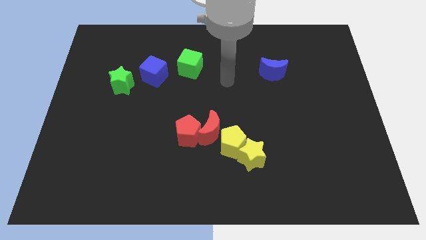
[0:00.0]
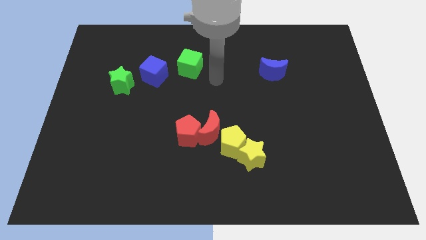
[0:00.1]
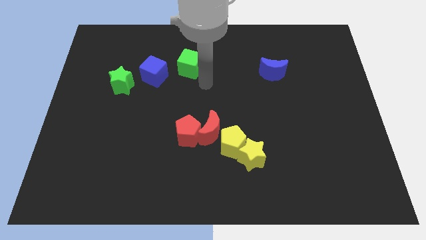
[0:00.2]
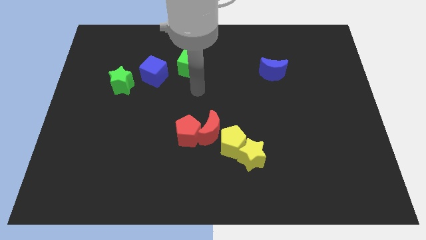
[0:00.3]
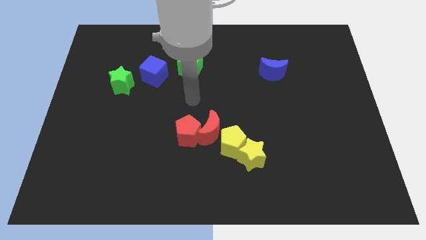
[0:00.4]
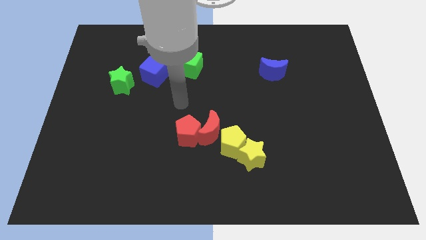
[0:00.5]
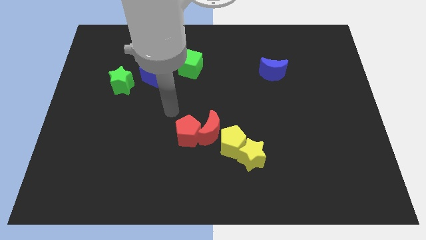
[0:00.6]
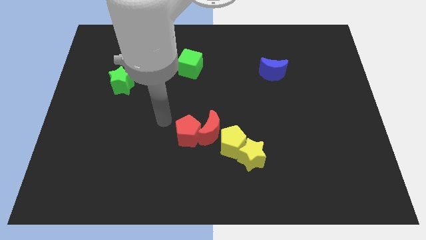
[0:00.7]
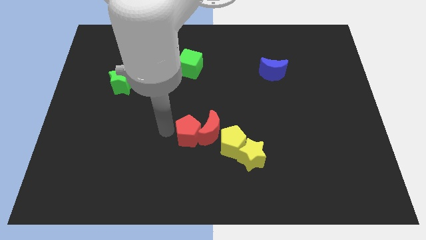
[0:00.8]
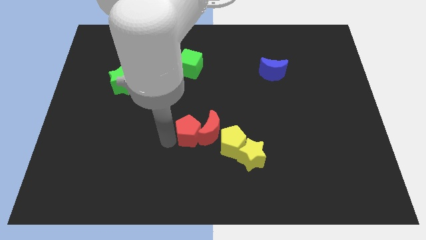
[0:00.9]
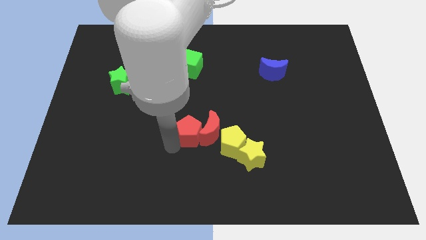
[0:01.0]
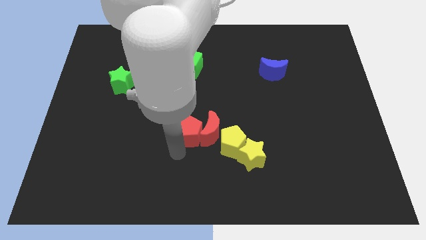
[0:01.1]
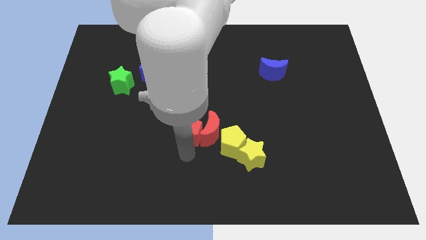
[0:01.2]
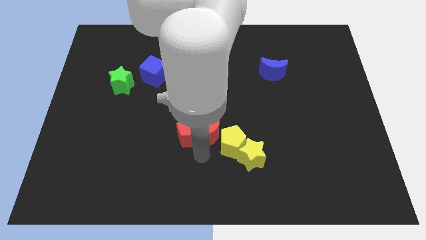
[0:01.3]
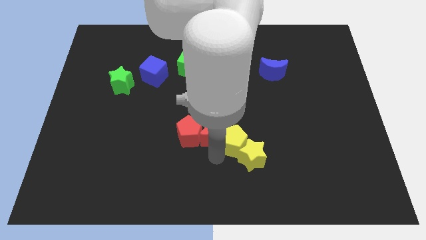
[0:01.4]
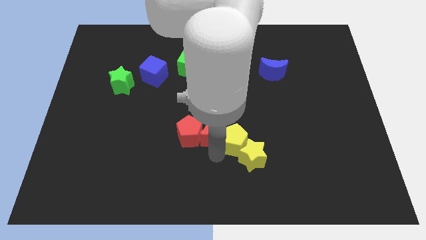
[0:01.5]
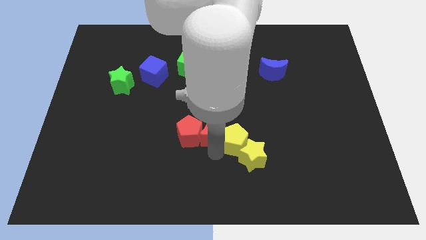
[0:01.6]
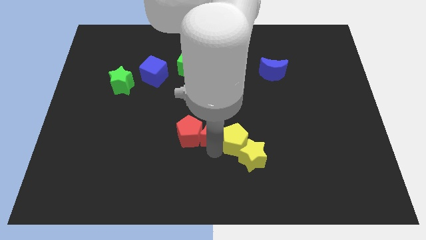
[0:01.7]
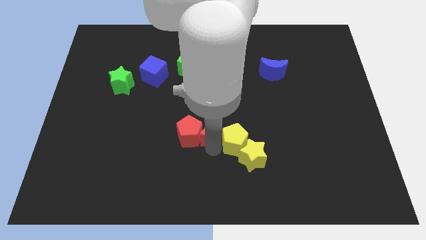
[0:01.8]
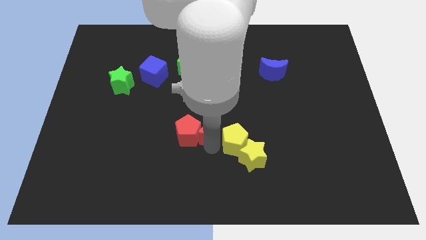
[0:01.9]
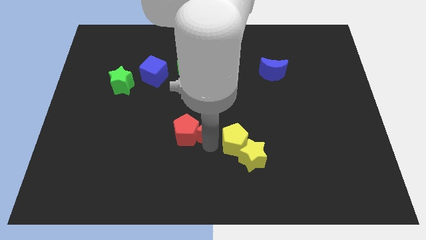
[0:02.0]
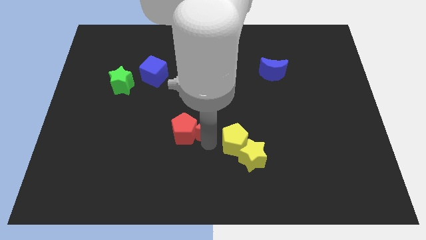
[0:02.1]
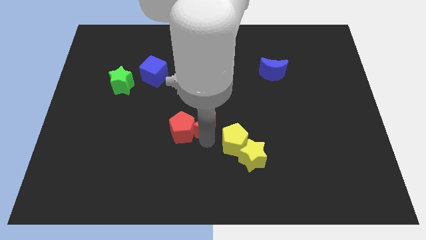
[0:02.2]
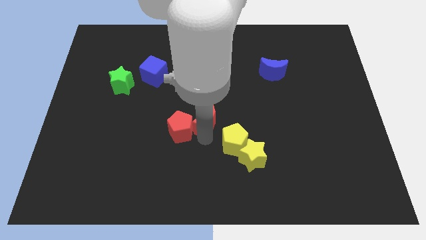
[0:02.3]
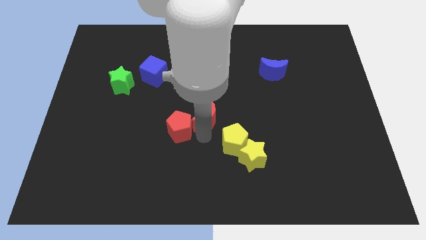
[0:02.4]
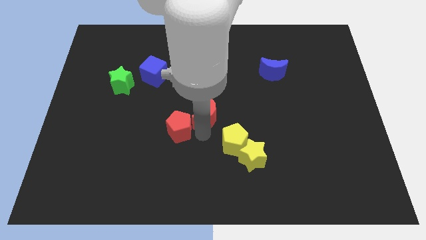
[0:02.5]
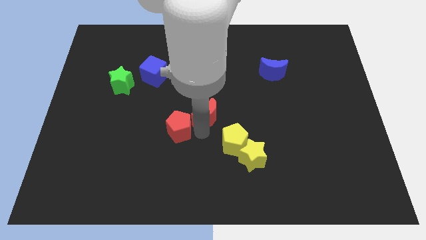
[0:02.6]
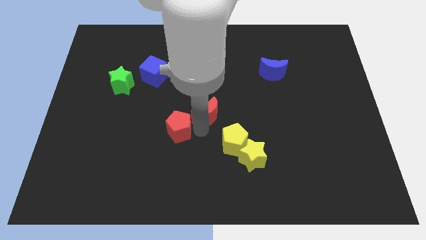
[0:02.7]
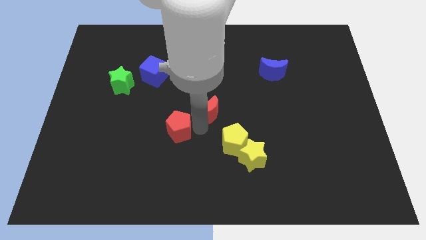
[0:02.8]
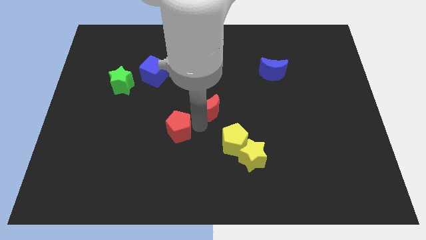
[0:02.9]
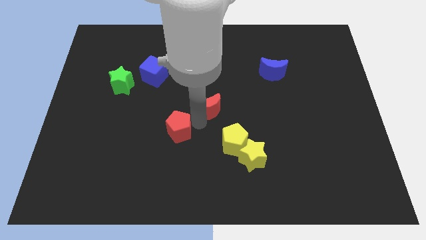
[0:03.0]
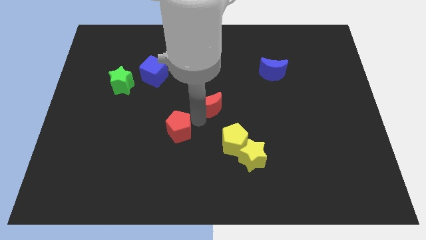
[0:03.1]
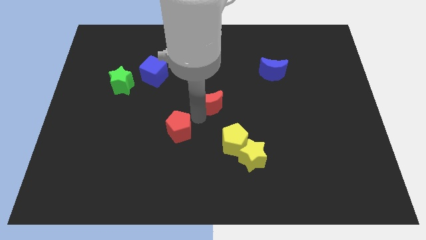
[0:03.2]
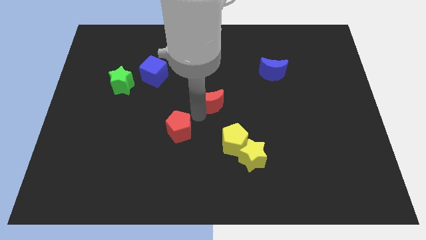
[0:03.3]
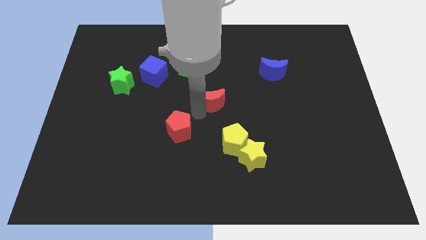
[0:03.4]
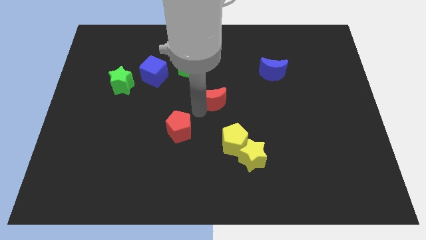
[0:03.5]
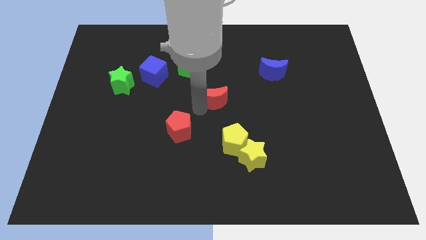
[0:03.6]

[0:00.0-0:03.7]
move the red moon away from the red pentagon and yellow pentagon

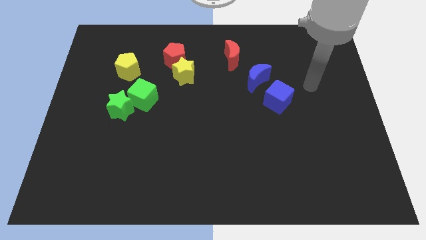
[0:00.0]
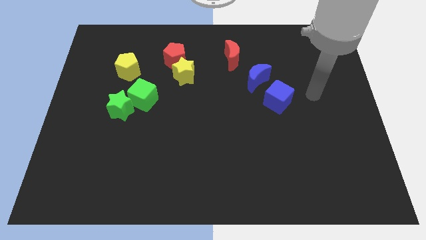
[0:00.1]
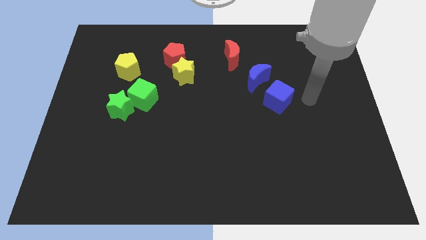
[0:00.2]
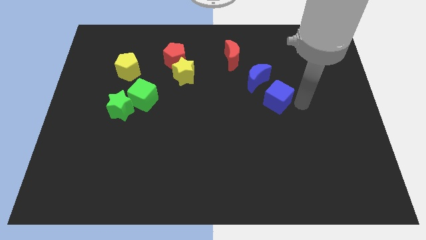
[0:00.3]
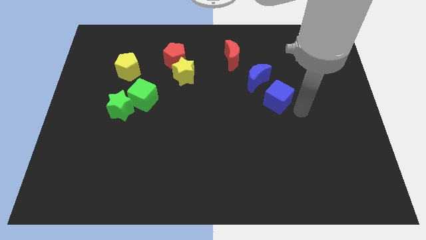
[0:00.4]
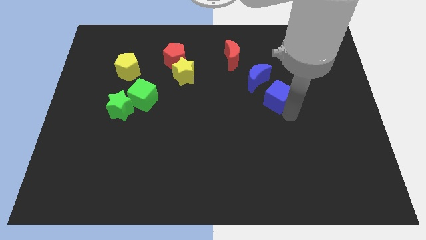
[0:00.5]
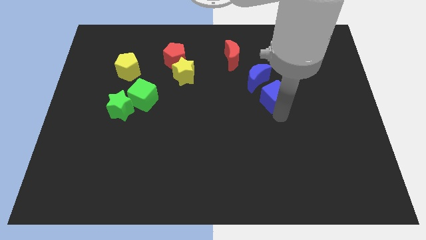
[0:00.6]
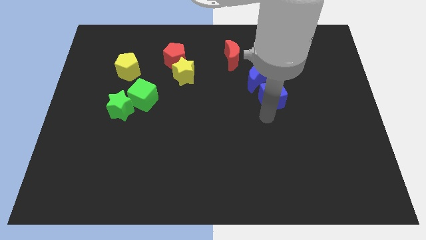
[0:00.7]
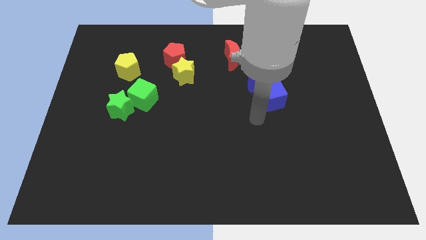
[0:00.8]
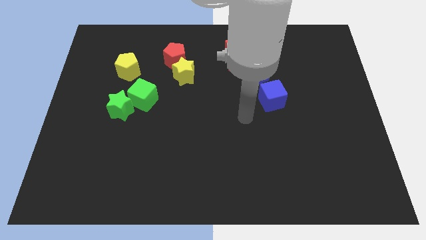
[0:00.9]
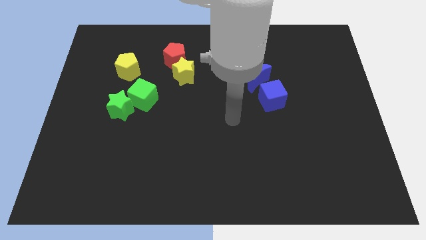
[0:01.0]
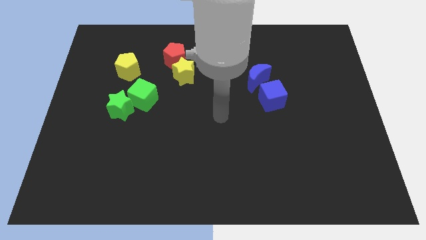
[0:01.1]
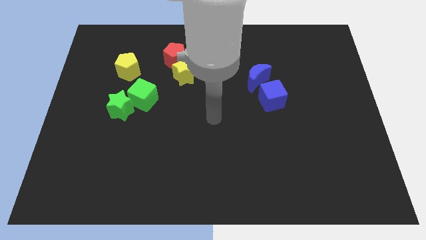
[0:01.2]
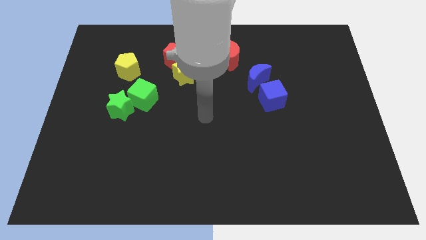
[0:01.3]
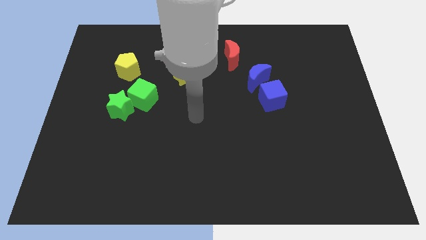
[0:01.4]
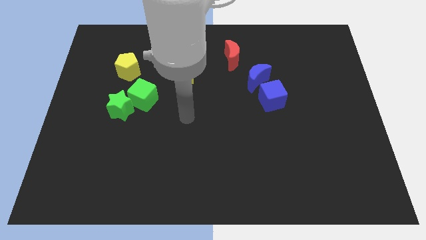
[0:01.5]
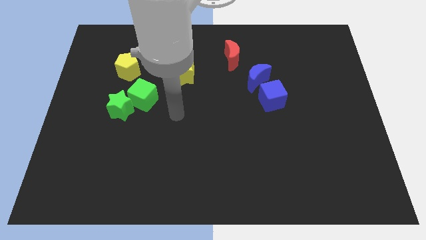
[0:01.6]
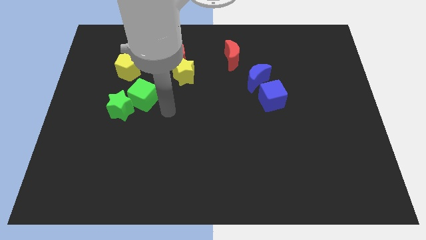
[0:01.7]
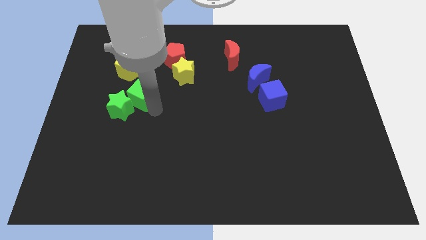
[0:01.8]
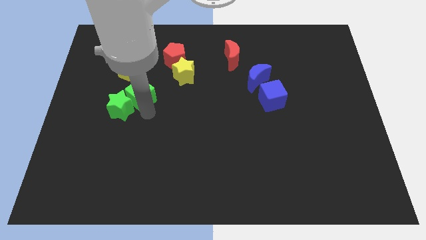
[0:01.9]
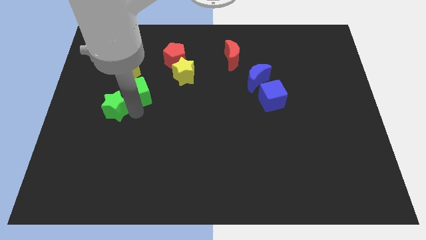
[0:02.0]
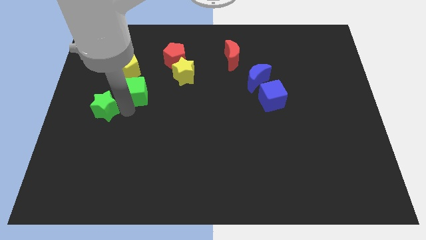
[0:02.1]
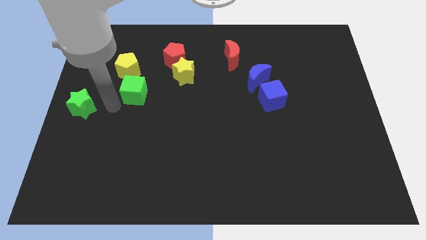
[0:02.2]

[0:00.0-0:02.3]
pull the green cube apart from the green star

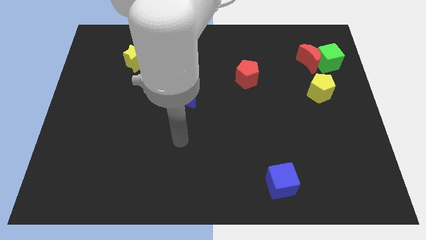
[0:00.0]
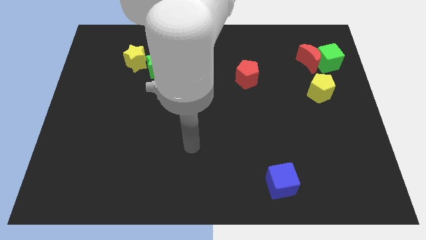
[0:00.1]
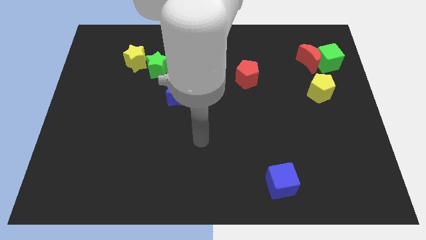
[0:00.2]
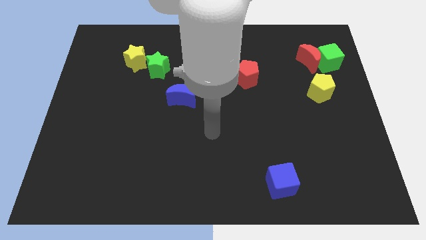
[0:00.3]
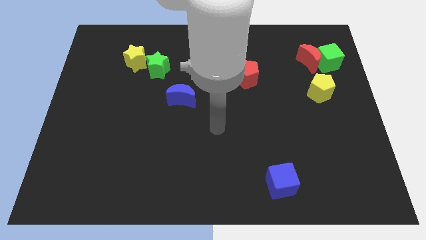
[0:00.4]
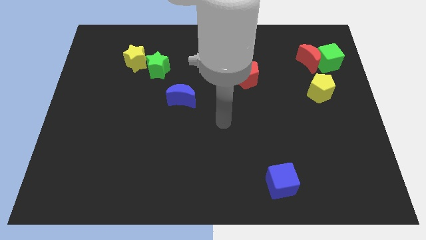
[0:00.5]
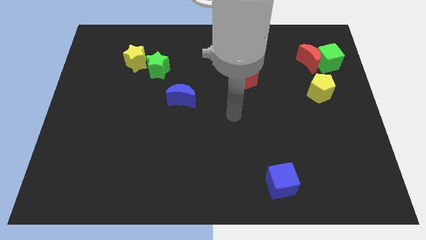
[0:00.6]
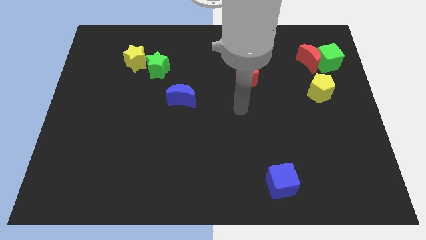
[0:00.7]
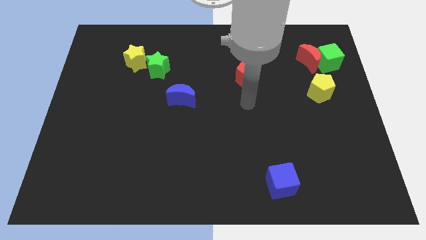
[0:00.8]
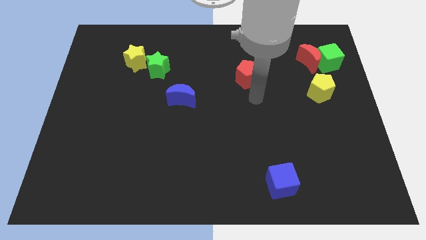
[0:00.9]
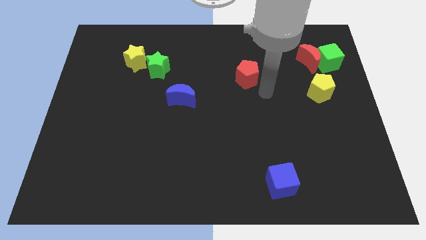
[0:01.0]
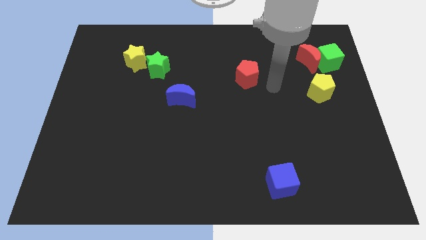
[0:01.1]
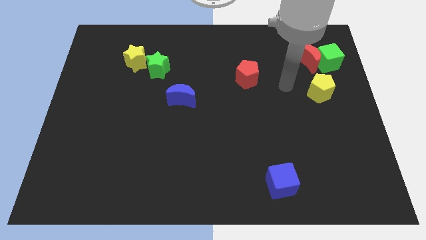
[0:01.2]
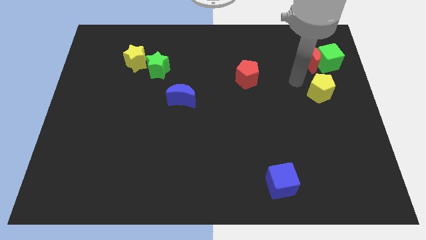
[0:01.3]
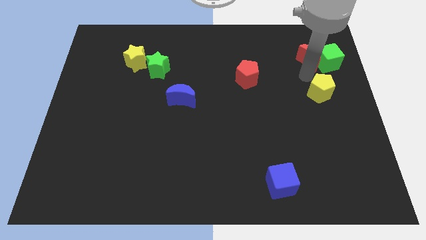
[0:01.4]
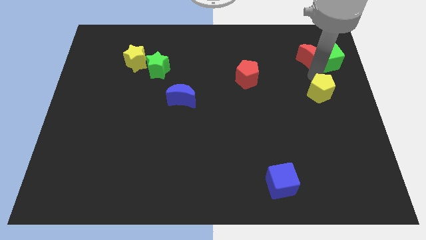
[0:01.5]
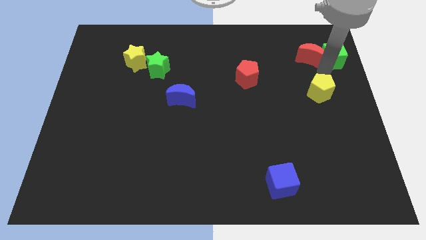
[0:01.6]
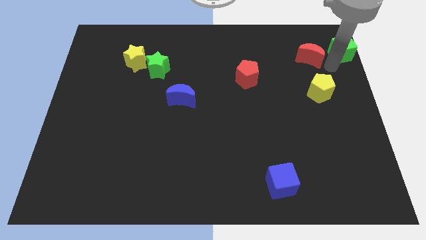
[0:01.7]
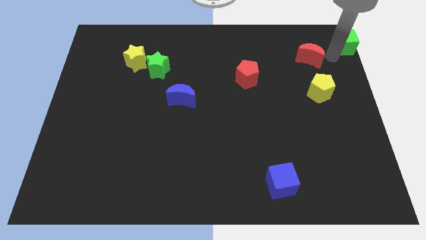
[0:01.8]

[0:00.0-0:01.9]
separate the red moon from the green cube

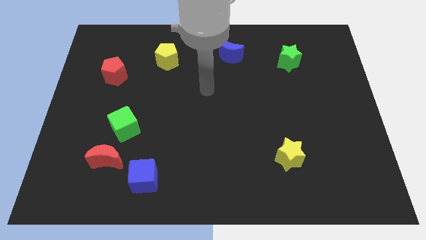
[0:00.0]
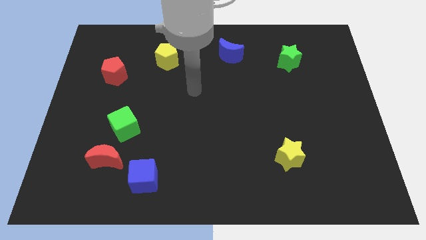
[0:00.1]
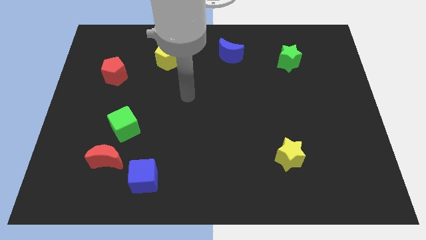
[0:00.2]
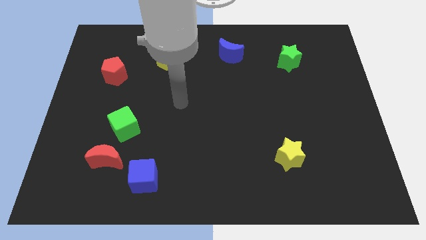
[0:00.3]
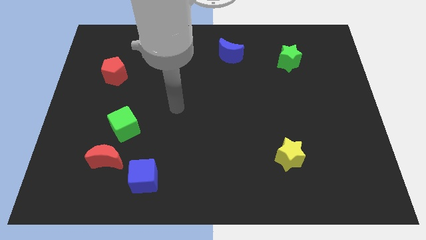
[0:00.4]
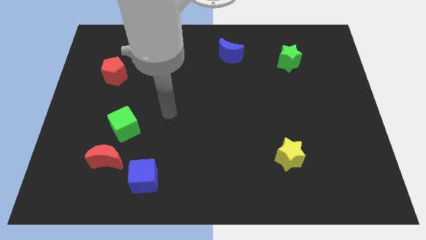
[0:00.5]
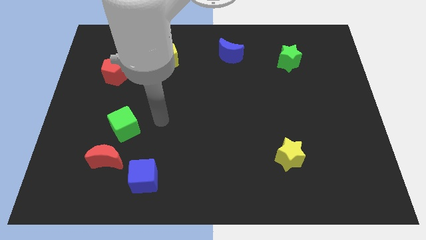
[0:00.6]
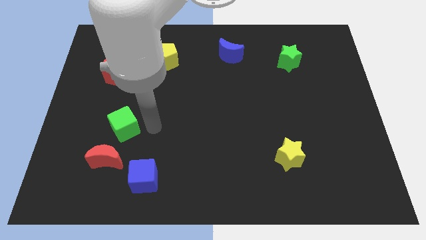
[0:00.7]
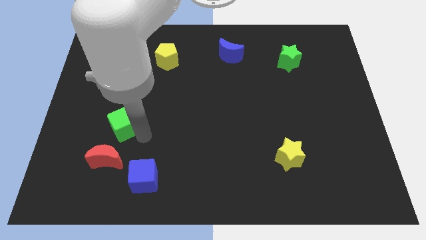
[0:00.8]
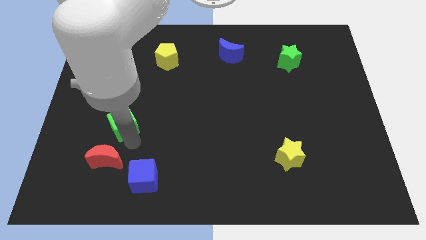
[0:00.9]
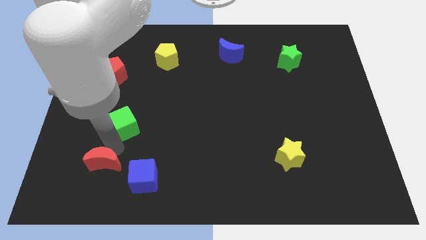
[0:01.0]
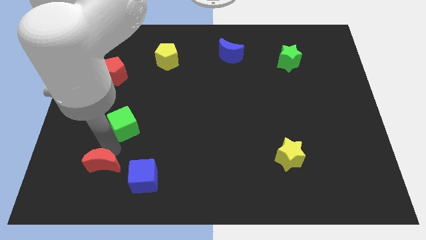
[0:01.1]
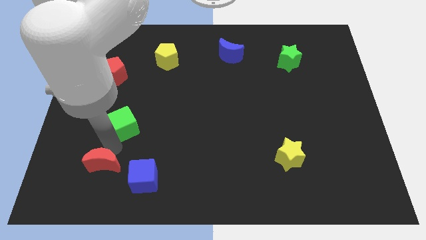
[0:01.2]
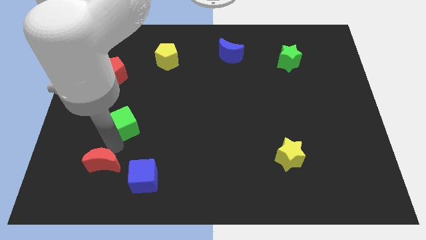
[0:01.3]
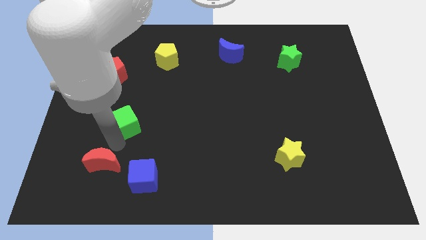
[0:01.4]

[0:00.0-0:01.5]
pull the green cube apart from the red moon
